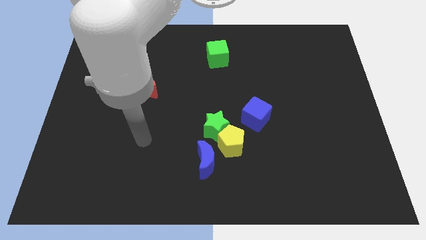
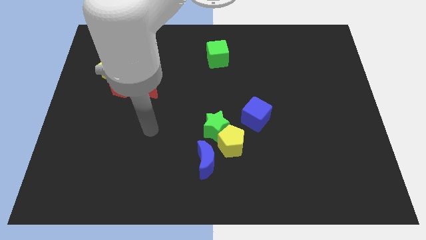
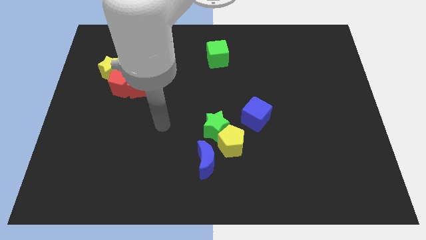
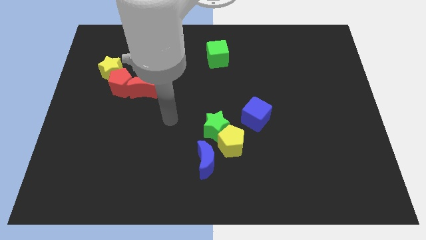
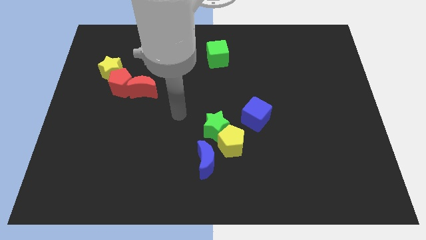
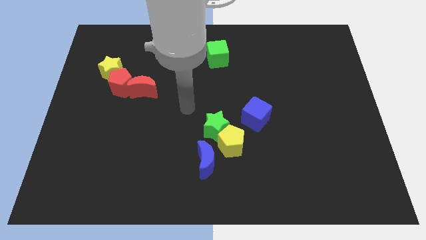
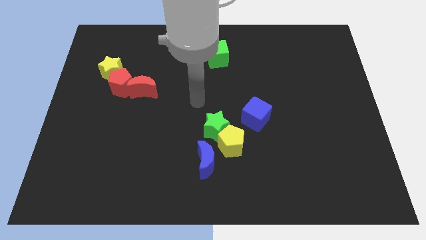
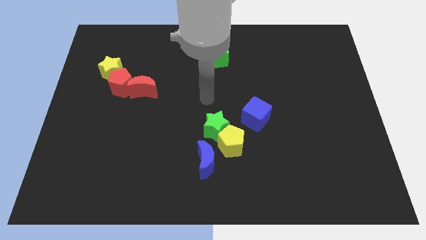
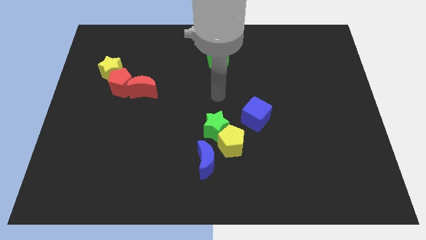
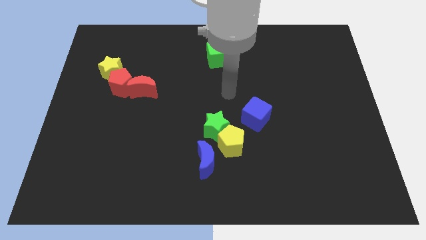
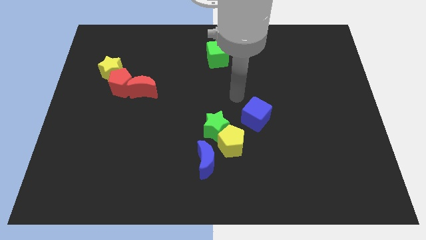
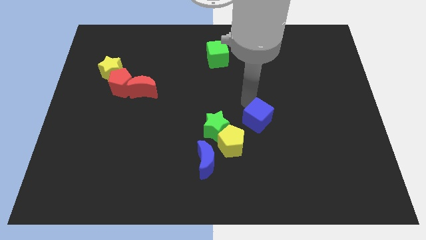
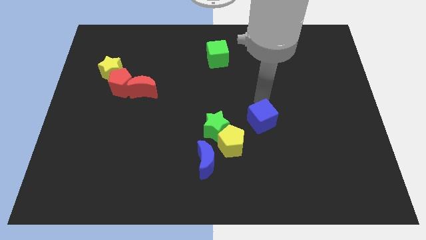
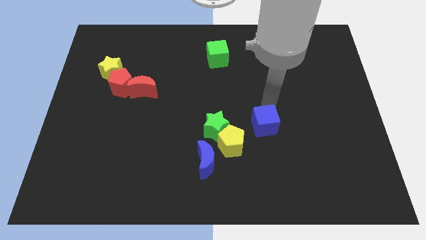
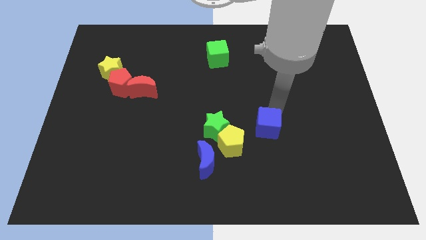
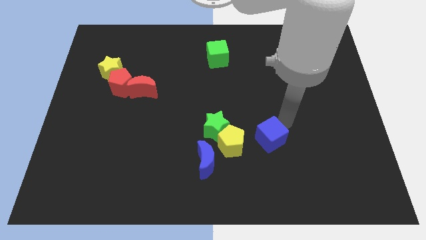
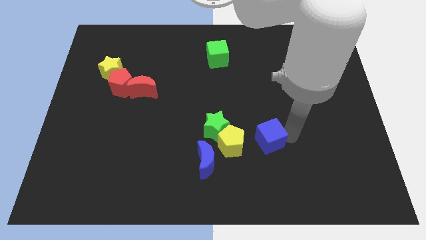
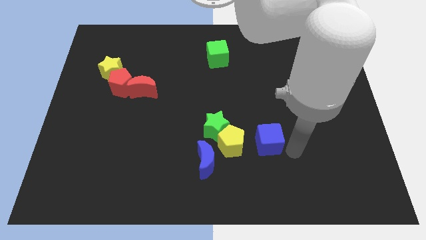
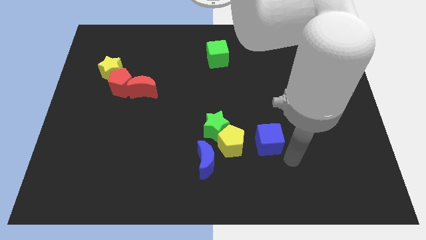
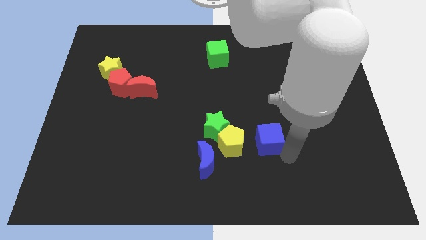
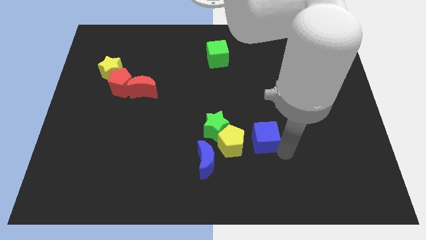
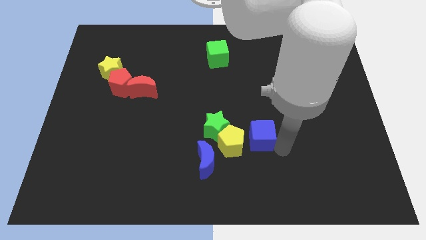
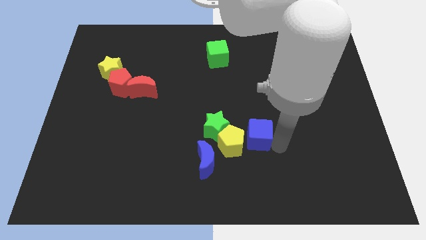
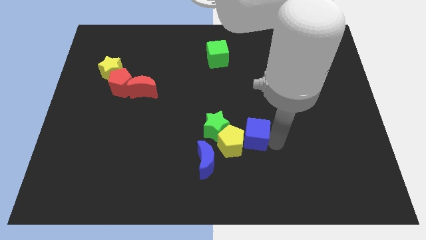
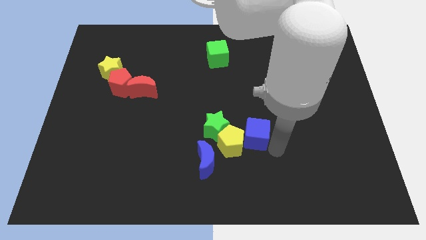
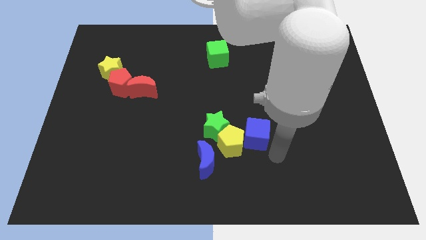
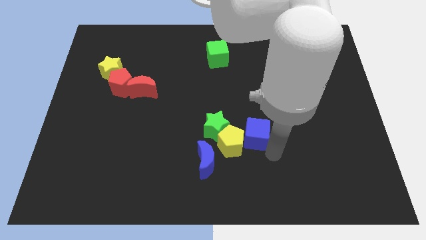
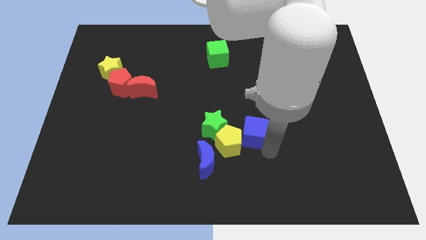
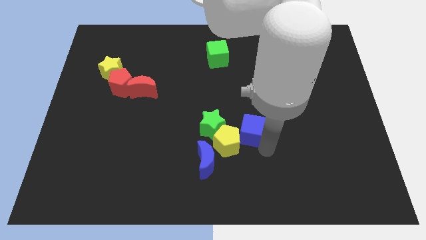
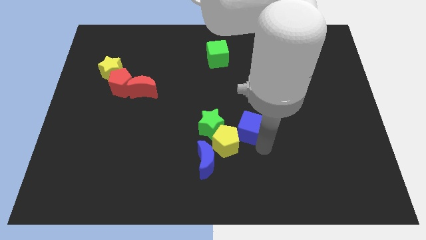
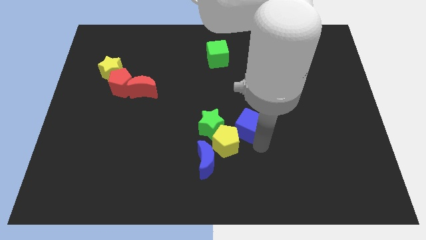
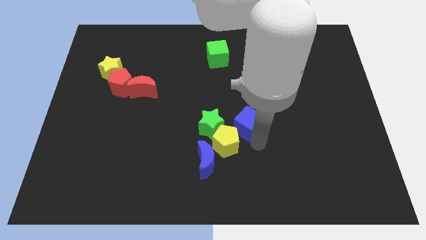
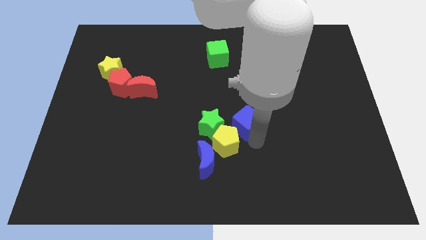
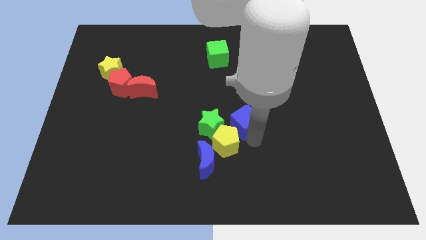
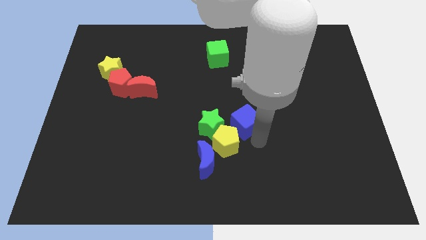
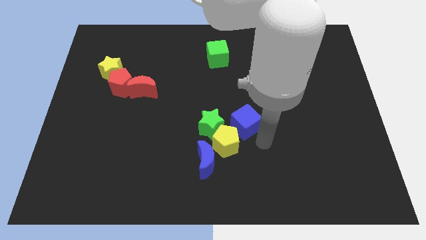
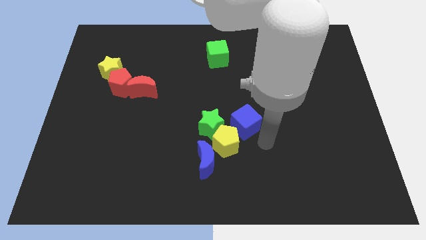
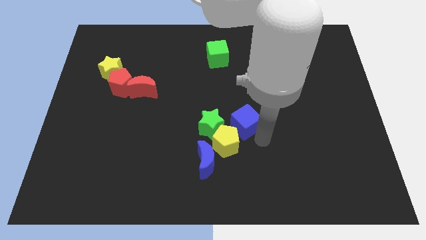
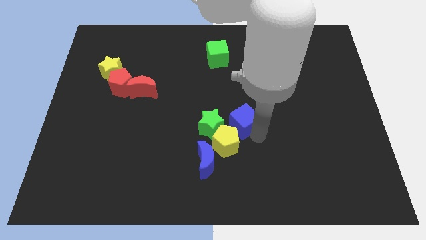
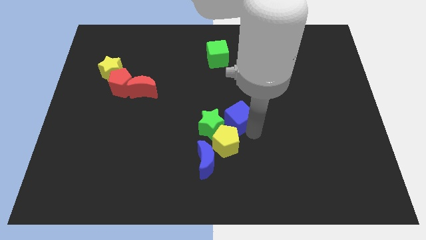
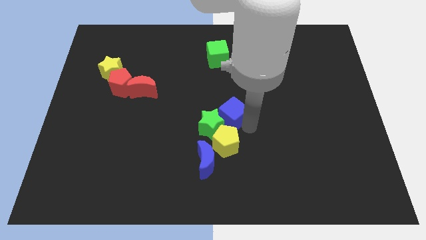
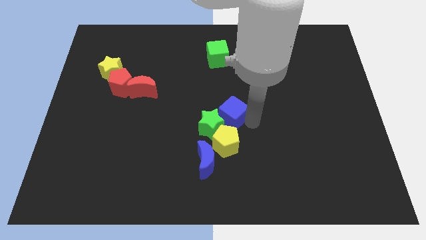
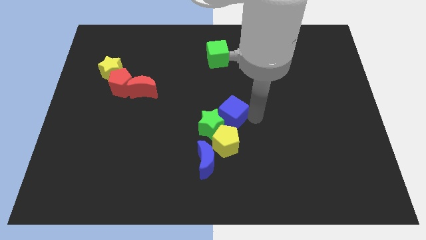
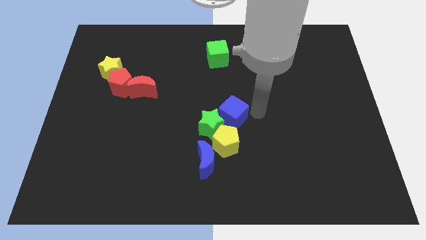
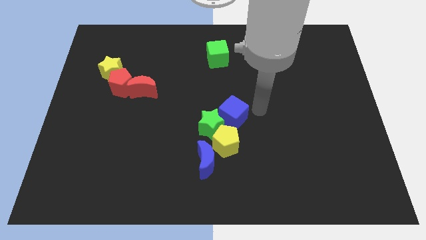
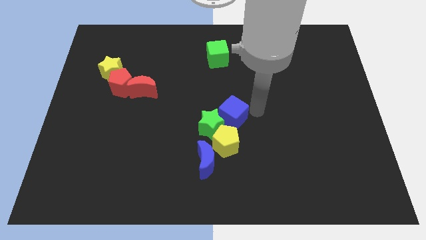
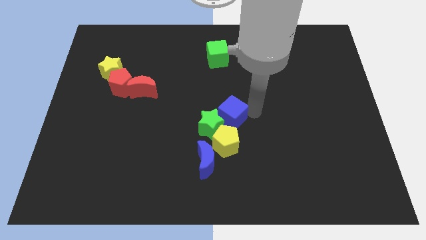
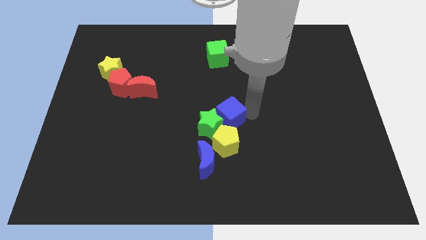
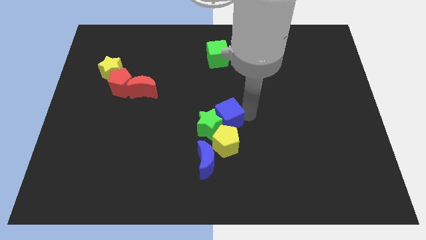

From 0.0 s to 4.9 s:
push the blue cube to the top side of the blue moon

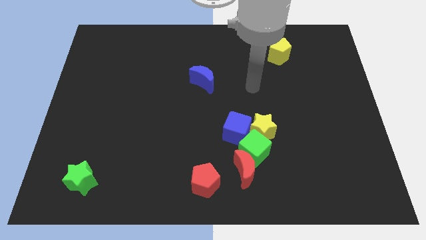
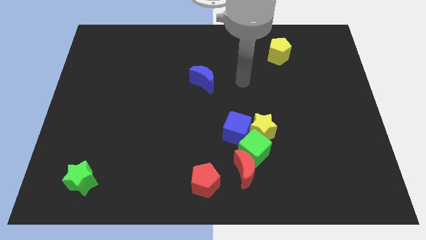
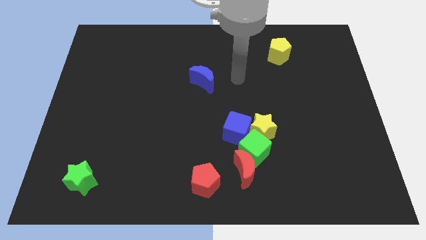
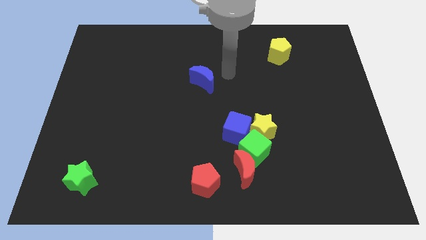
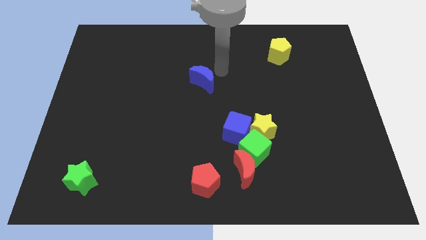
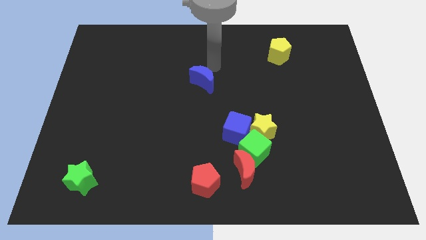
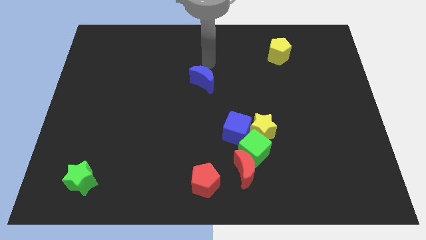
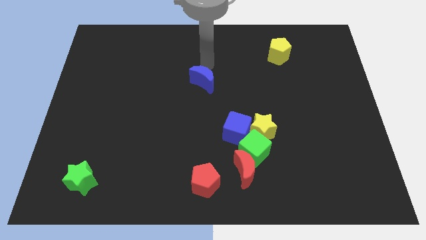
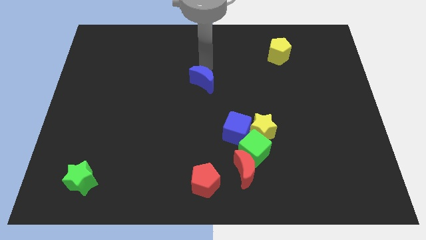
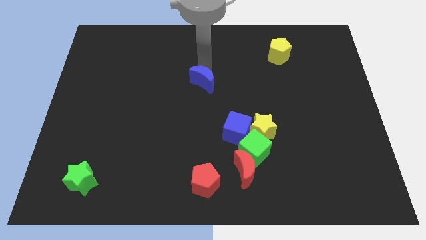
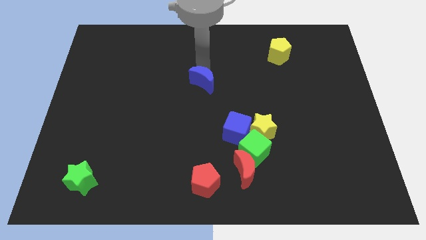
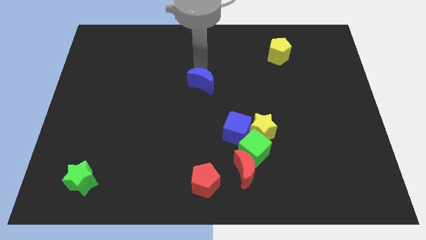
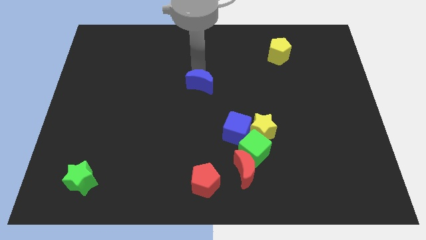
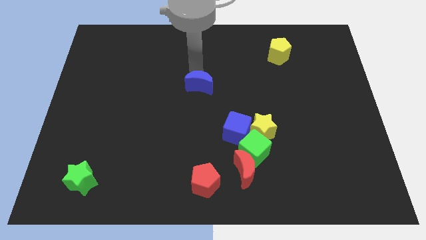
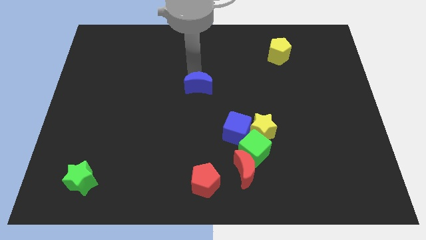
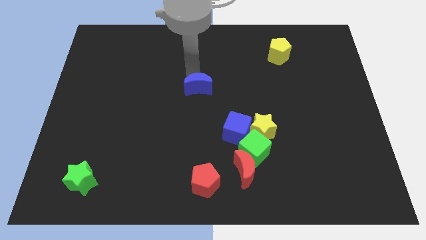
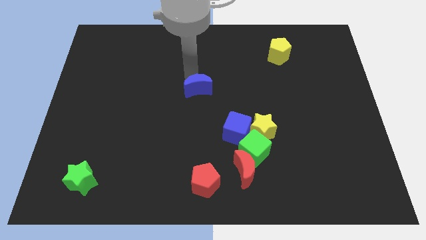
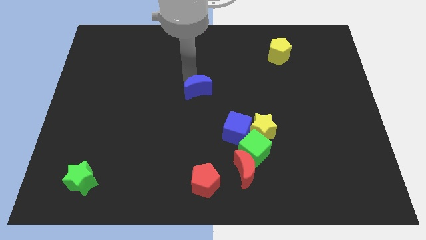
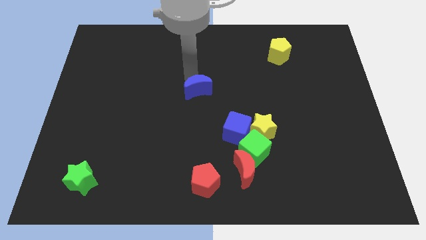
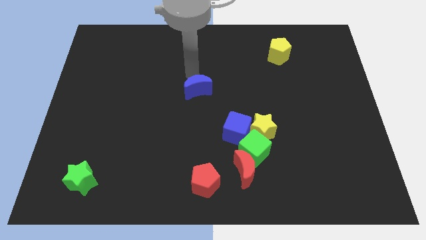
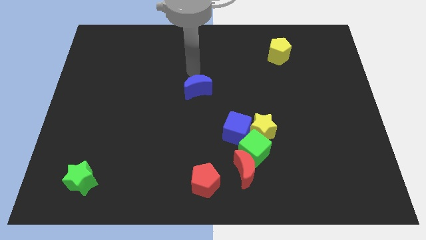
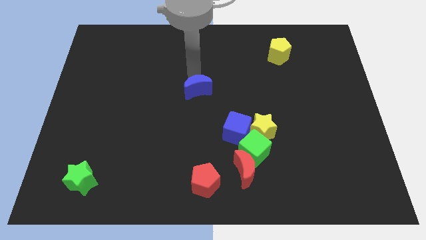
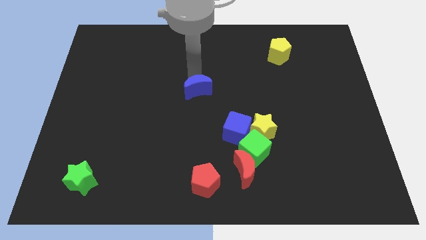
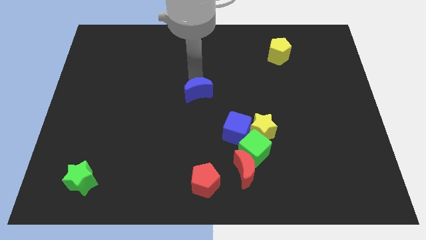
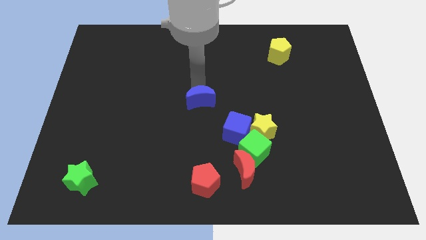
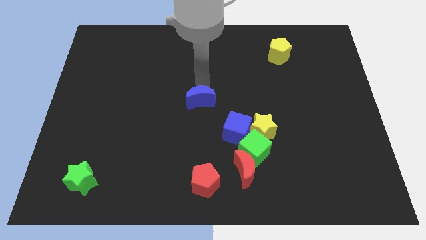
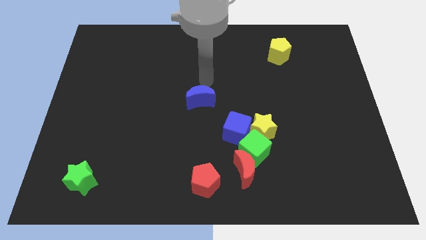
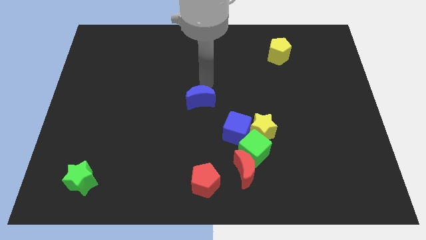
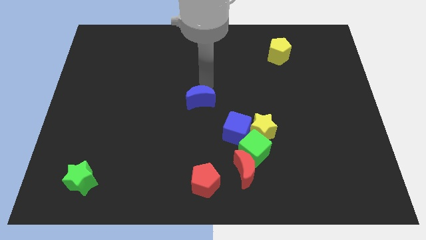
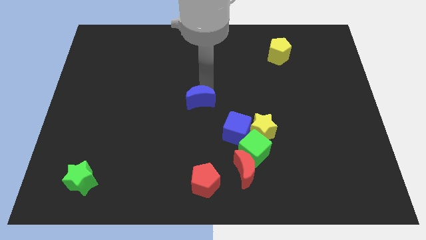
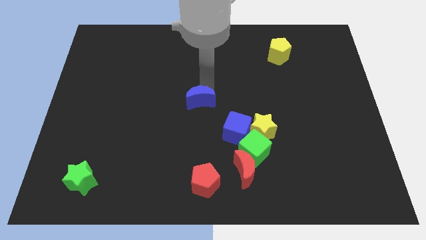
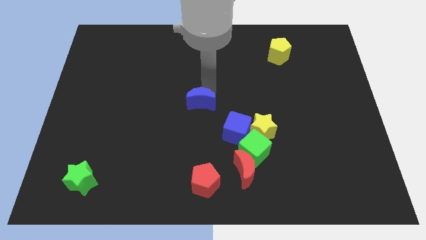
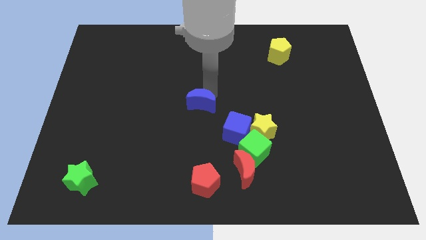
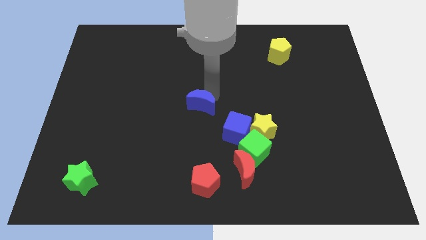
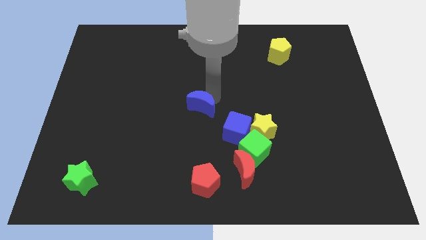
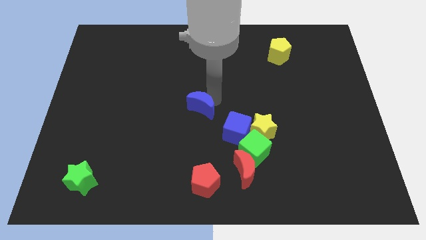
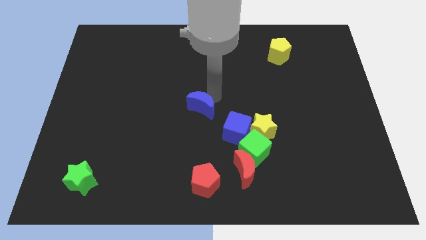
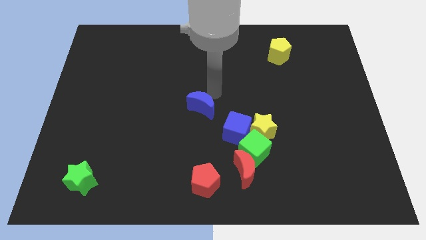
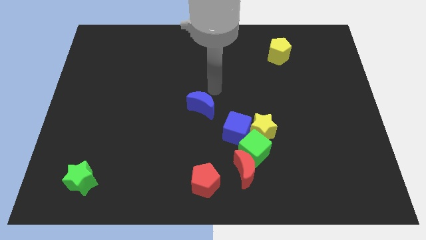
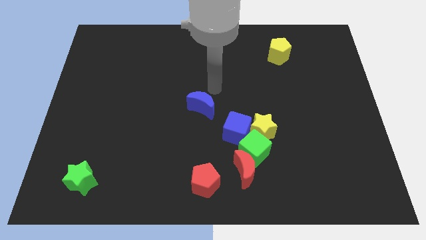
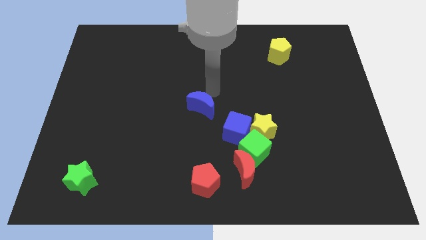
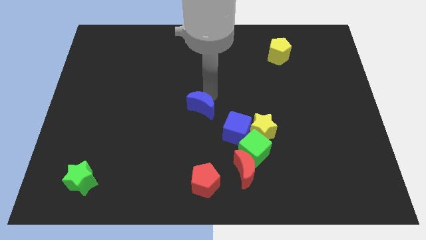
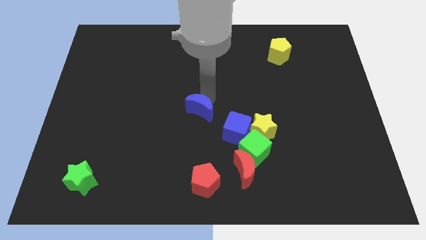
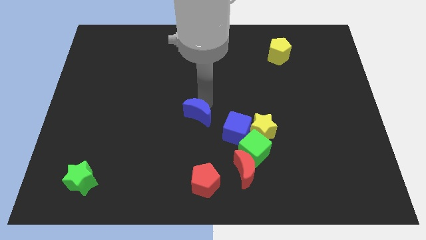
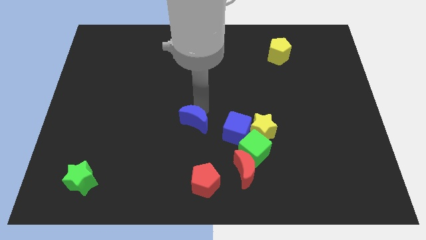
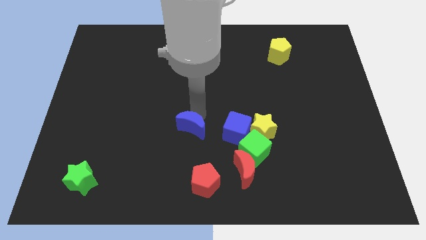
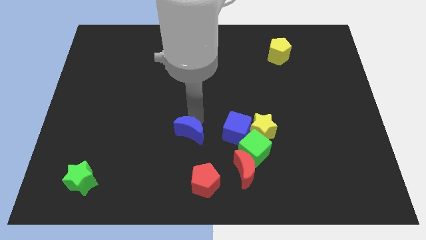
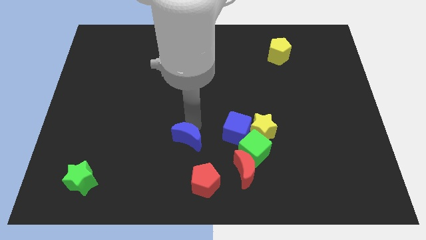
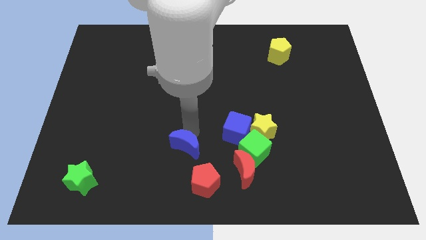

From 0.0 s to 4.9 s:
move the blue moon to the top left side of the red pentagon
